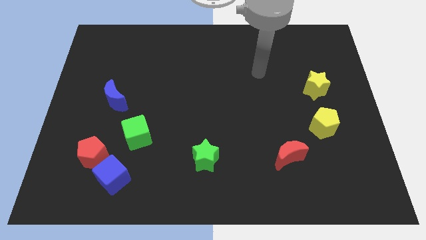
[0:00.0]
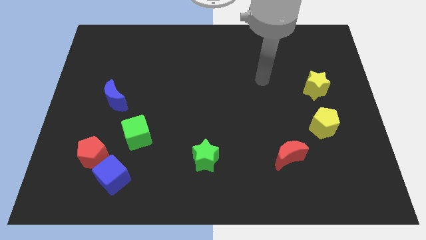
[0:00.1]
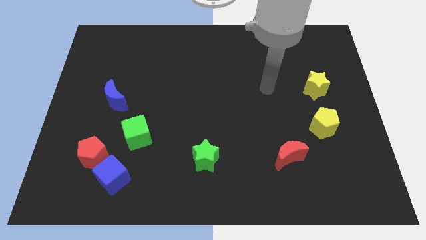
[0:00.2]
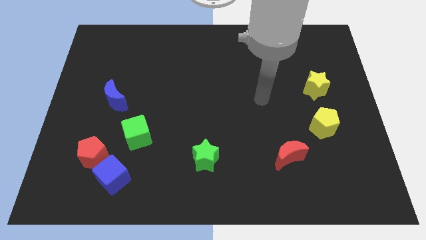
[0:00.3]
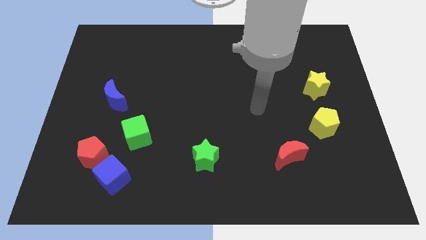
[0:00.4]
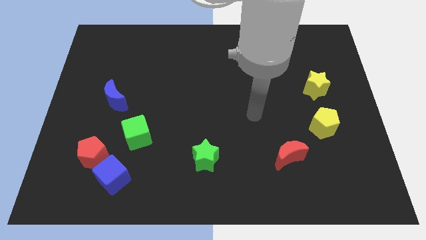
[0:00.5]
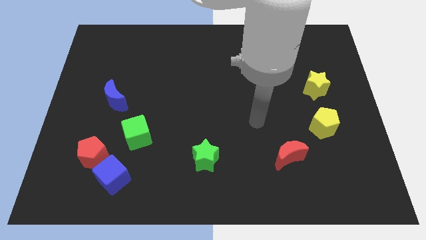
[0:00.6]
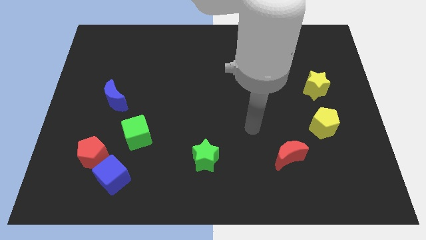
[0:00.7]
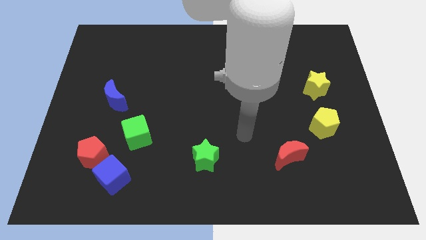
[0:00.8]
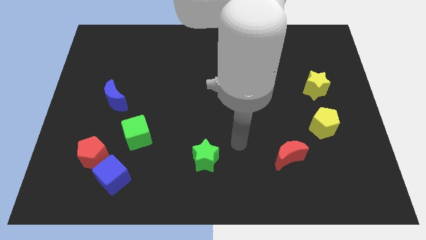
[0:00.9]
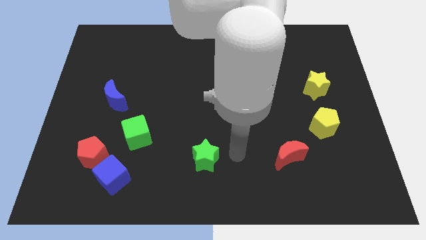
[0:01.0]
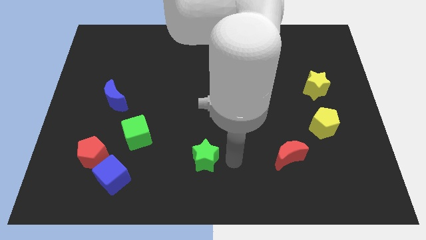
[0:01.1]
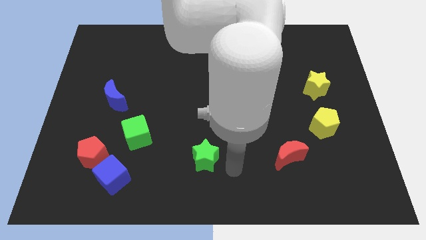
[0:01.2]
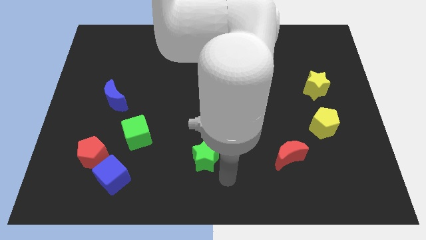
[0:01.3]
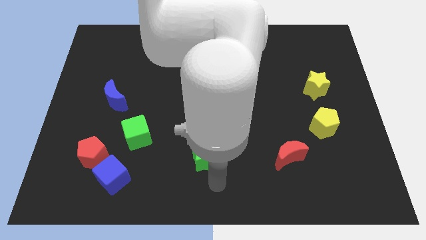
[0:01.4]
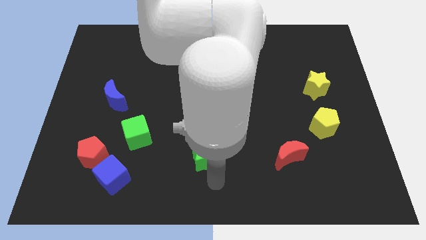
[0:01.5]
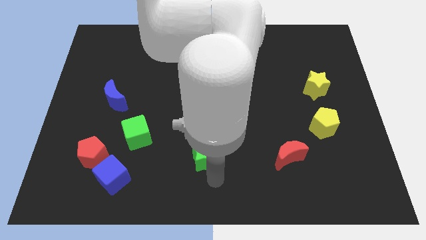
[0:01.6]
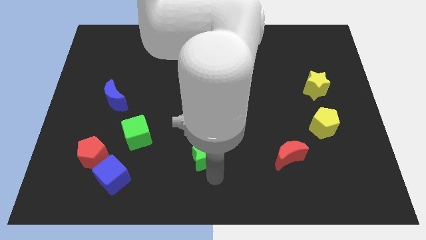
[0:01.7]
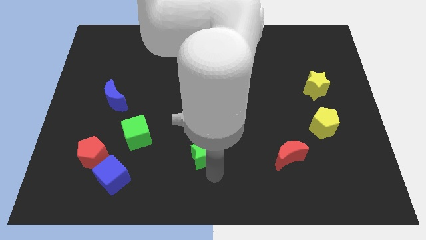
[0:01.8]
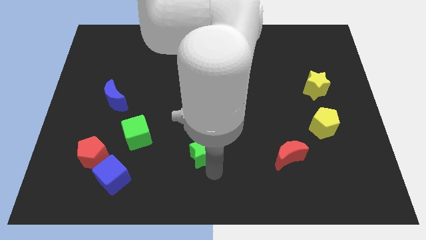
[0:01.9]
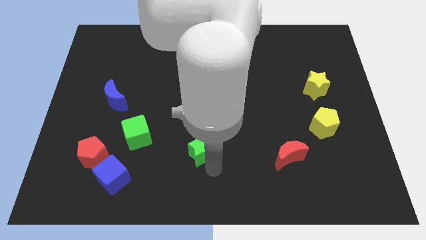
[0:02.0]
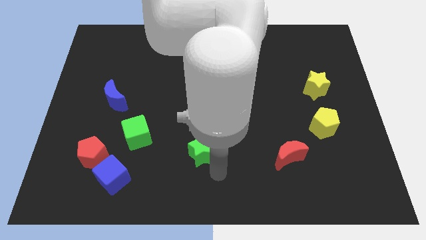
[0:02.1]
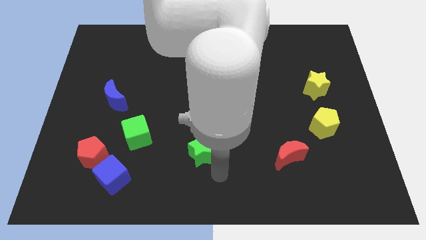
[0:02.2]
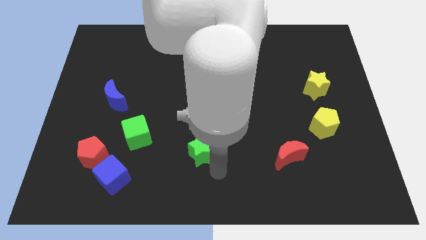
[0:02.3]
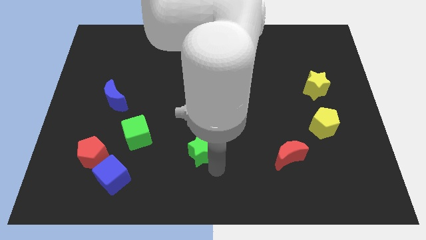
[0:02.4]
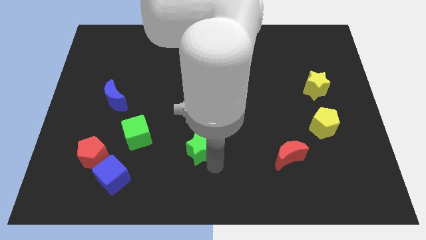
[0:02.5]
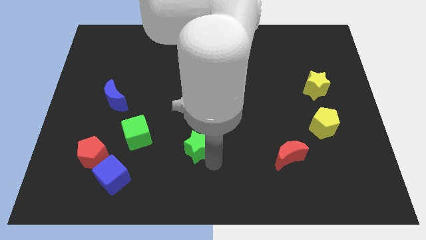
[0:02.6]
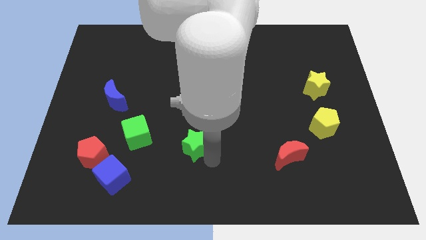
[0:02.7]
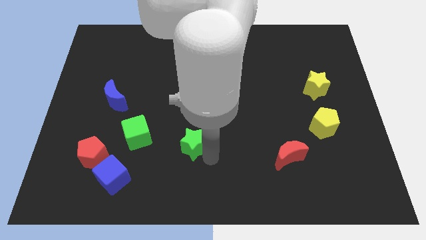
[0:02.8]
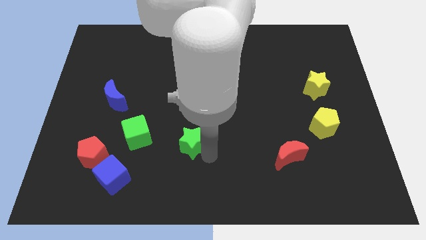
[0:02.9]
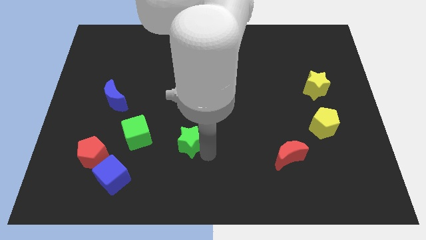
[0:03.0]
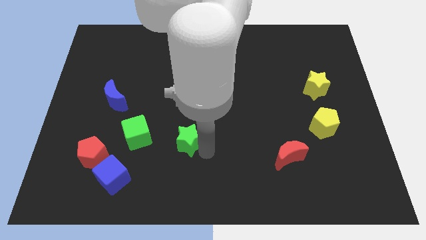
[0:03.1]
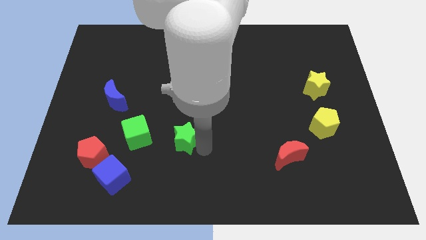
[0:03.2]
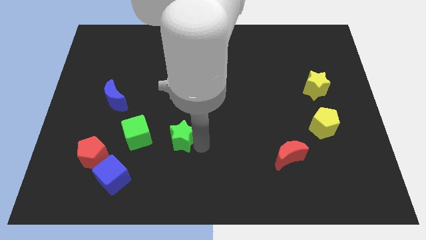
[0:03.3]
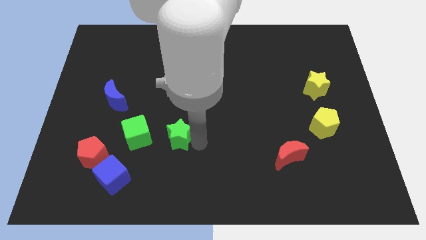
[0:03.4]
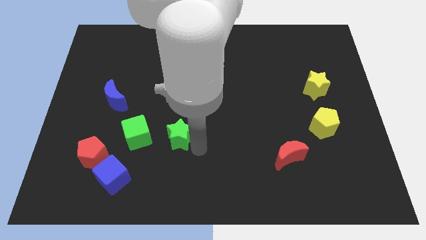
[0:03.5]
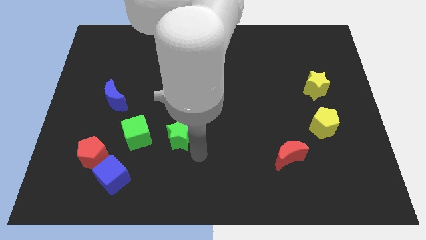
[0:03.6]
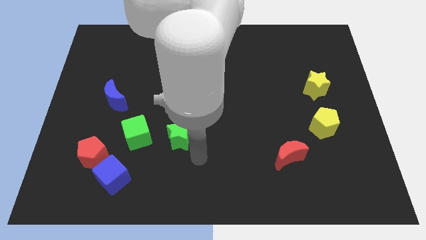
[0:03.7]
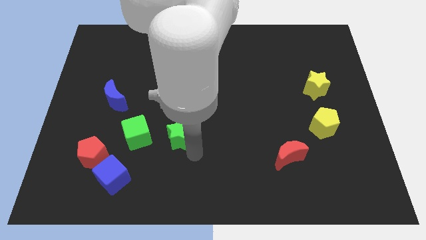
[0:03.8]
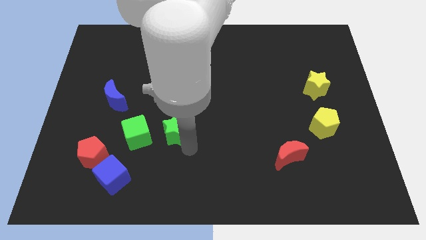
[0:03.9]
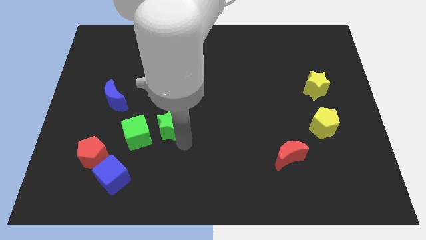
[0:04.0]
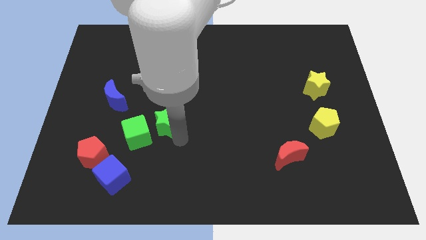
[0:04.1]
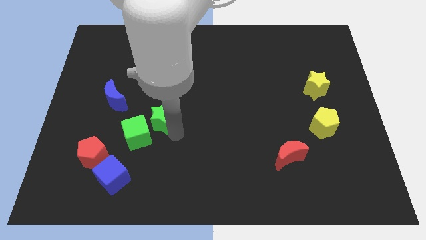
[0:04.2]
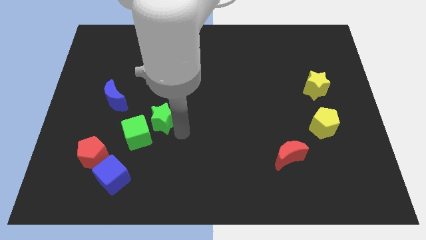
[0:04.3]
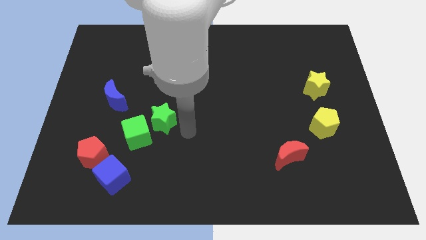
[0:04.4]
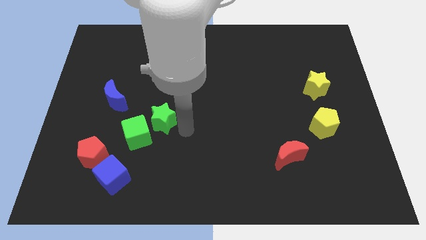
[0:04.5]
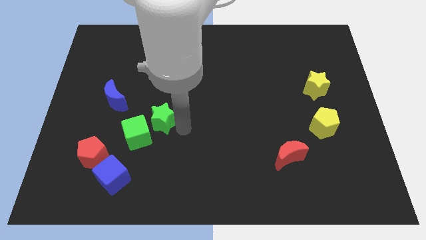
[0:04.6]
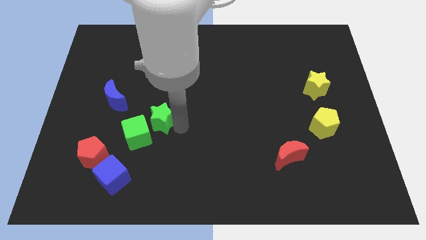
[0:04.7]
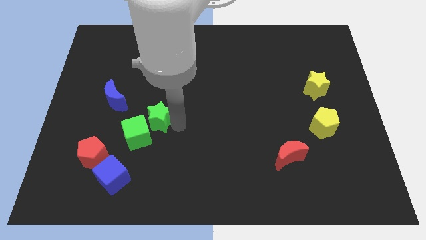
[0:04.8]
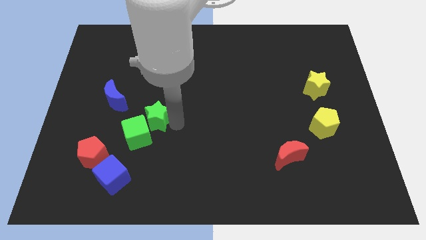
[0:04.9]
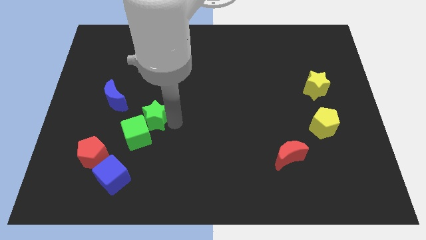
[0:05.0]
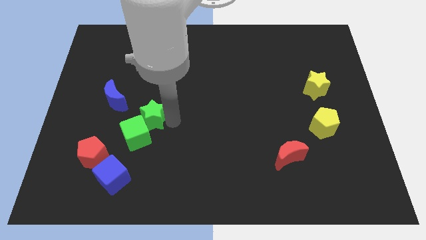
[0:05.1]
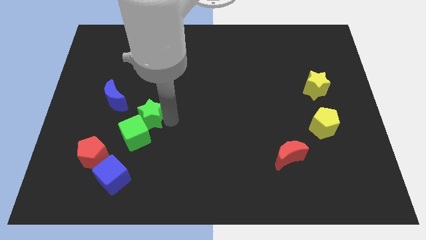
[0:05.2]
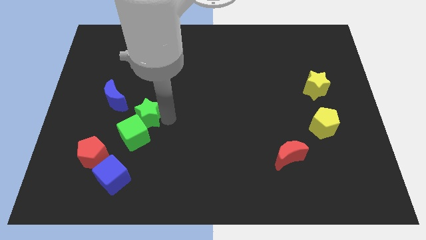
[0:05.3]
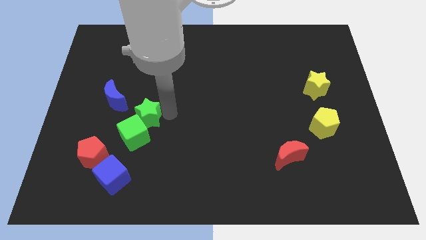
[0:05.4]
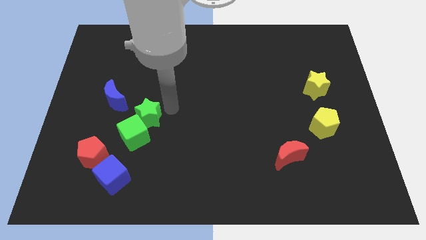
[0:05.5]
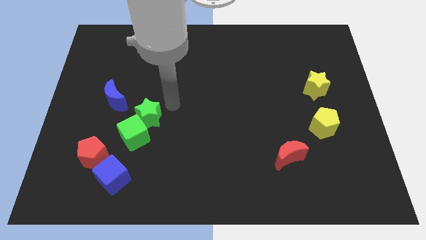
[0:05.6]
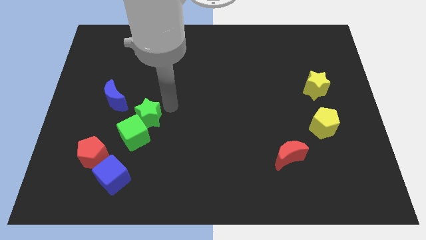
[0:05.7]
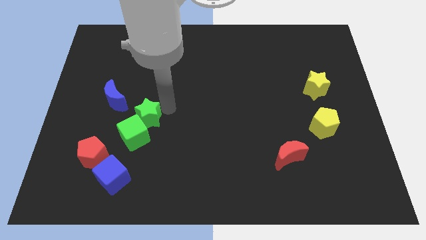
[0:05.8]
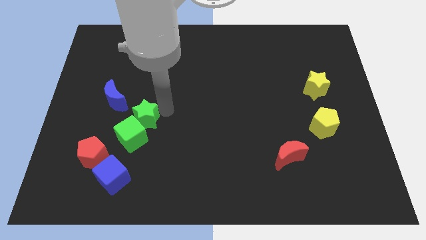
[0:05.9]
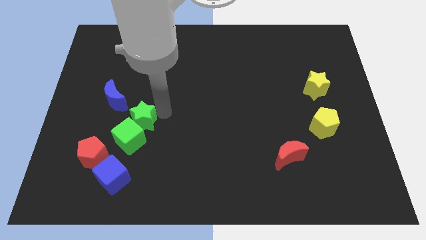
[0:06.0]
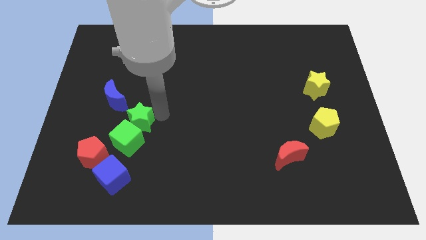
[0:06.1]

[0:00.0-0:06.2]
move the green star above the blue cube
